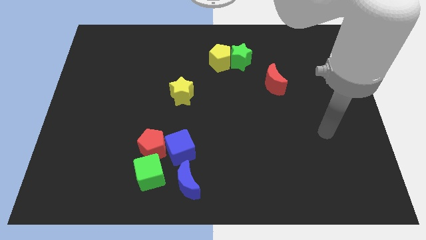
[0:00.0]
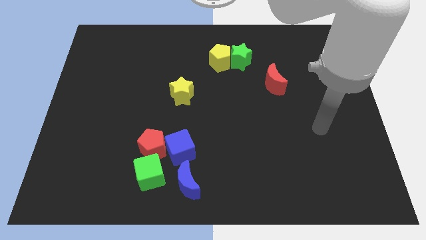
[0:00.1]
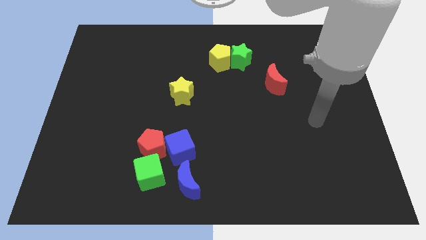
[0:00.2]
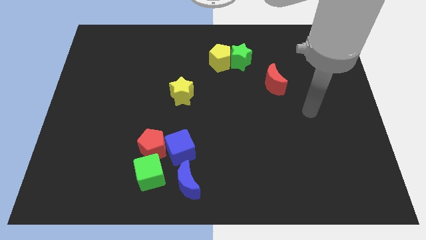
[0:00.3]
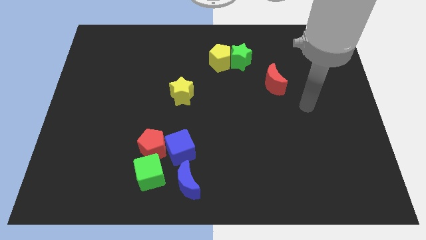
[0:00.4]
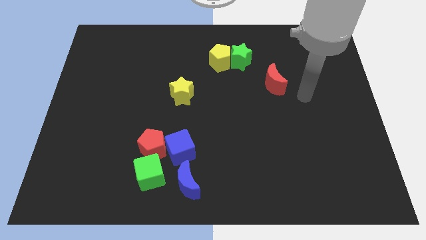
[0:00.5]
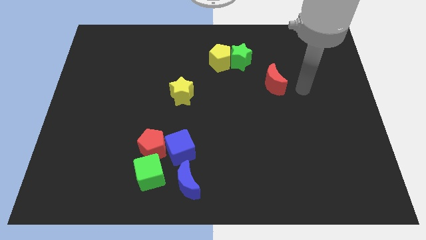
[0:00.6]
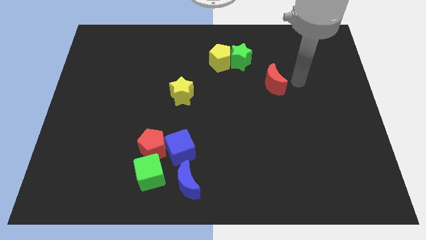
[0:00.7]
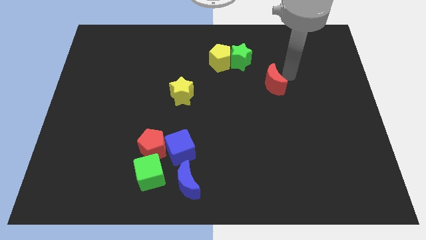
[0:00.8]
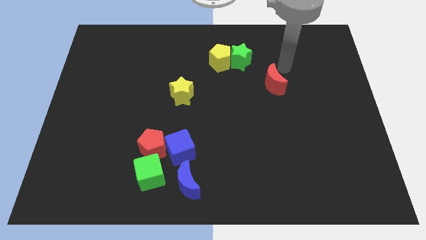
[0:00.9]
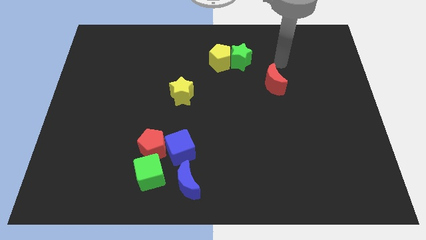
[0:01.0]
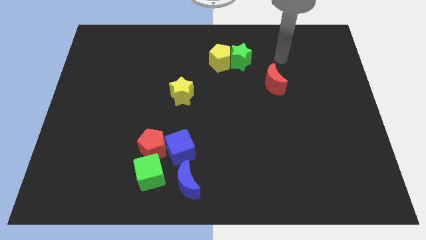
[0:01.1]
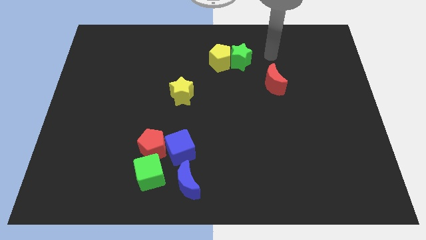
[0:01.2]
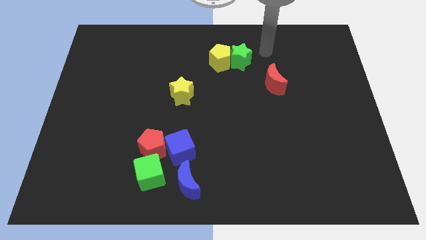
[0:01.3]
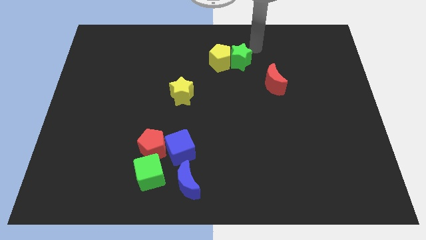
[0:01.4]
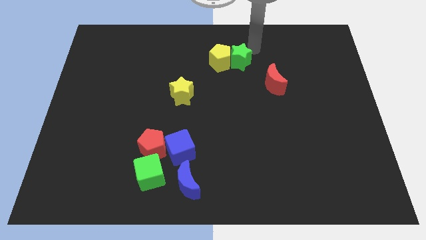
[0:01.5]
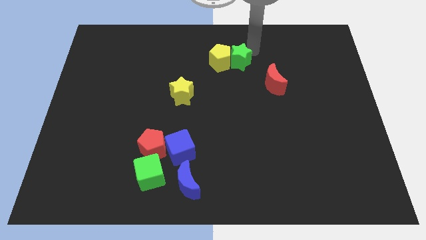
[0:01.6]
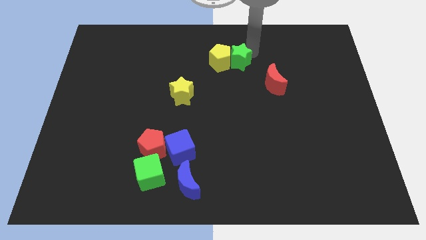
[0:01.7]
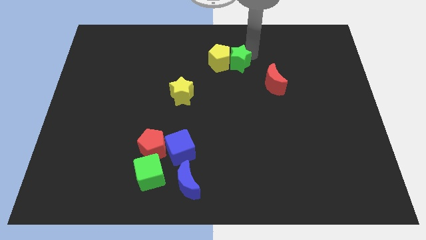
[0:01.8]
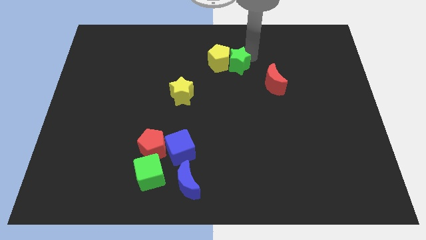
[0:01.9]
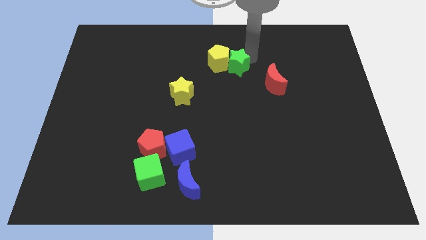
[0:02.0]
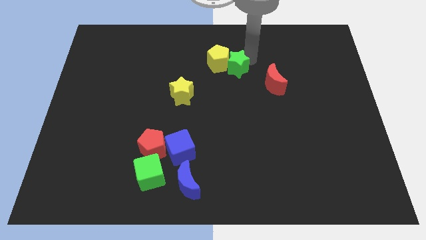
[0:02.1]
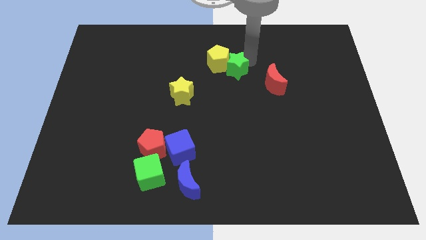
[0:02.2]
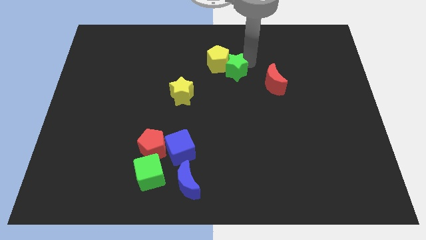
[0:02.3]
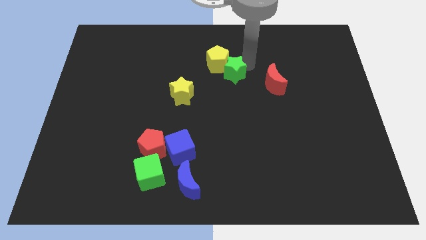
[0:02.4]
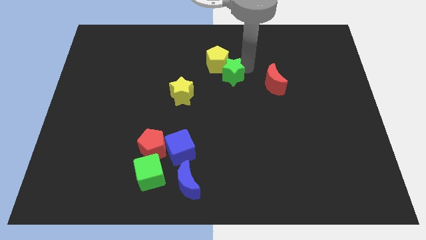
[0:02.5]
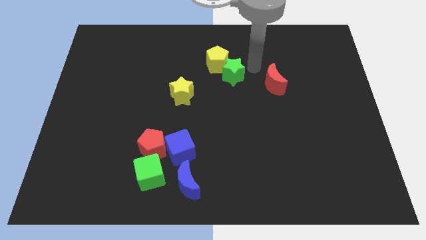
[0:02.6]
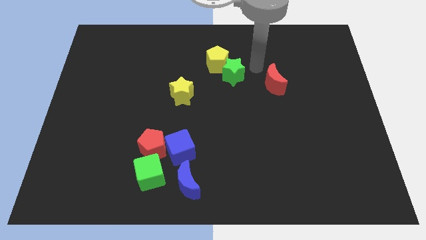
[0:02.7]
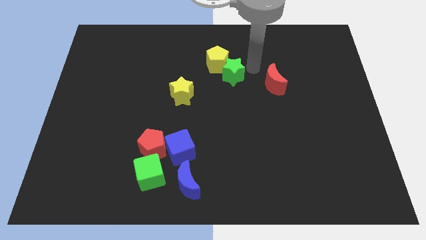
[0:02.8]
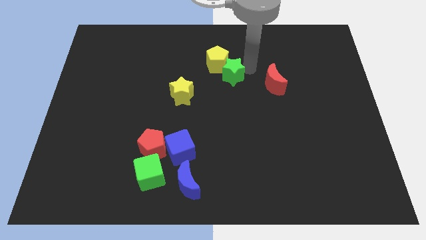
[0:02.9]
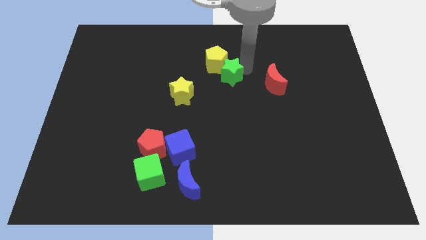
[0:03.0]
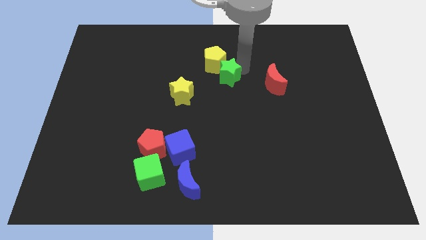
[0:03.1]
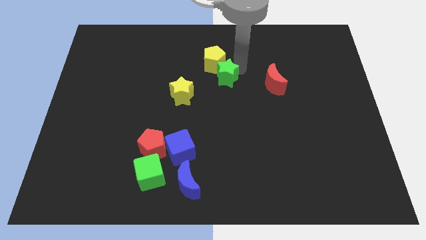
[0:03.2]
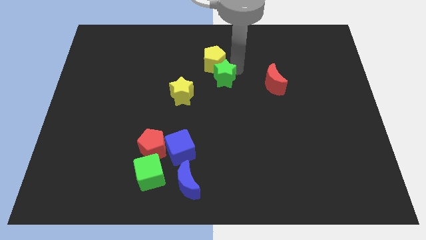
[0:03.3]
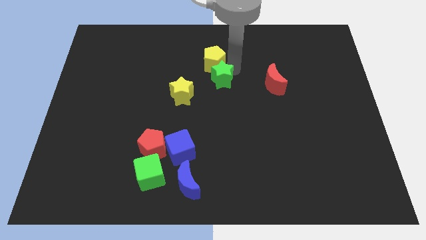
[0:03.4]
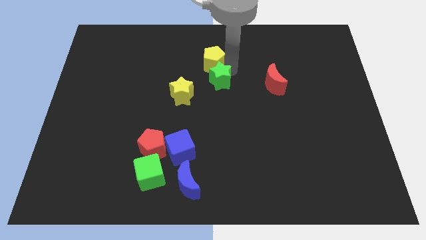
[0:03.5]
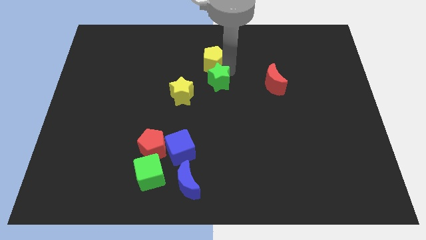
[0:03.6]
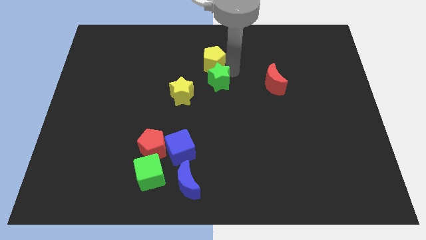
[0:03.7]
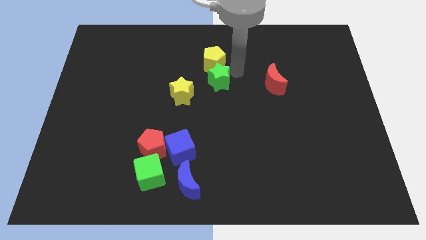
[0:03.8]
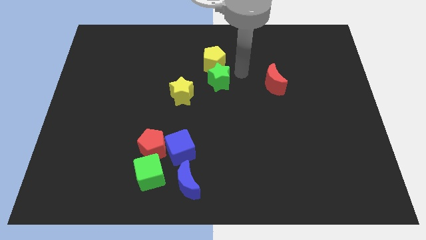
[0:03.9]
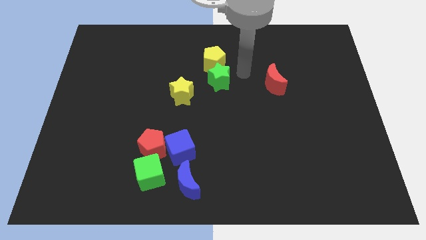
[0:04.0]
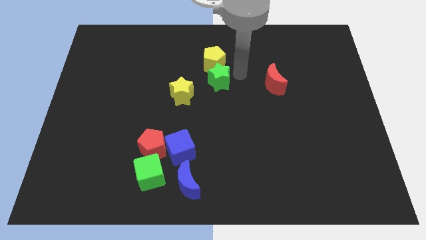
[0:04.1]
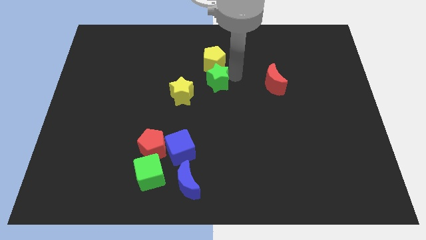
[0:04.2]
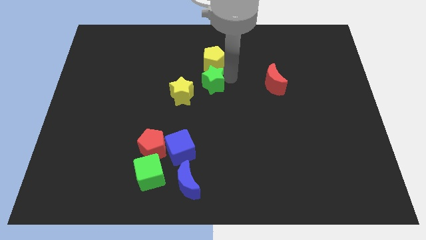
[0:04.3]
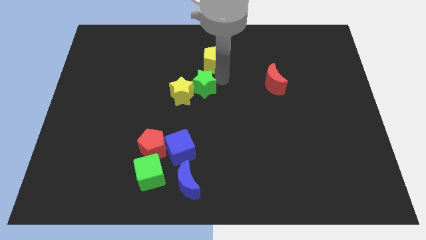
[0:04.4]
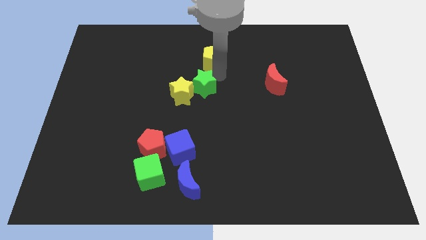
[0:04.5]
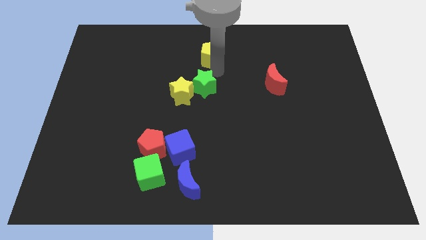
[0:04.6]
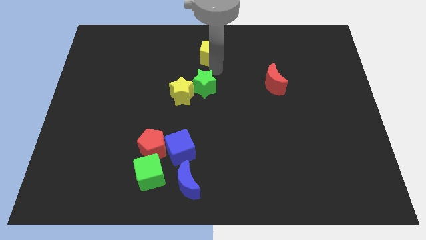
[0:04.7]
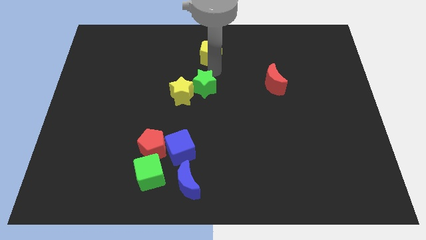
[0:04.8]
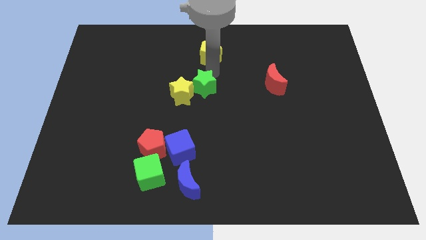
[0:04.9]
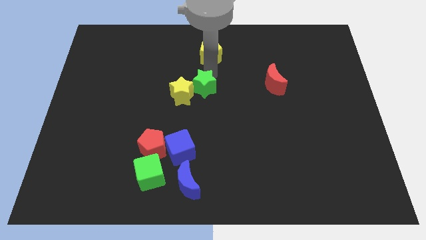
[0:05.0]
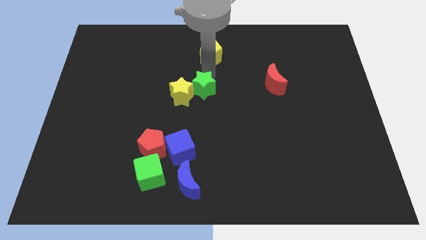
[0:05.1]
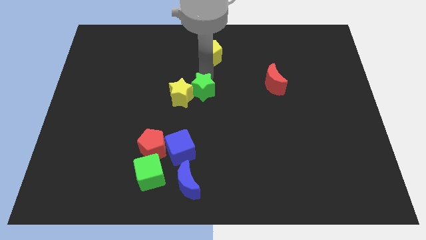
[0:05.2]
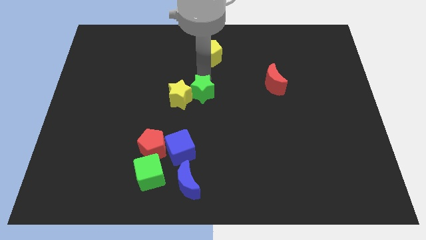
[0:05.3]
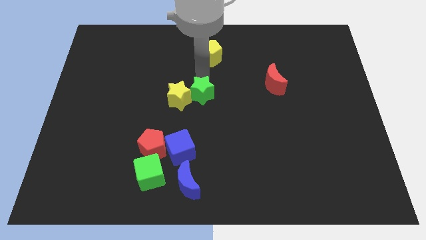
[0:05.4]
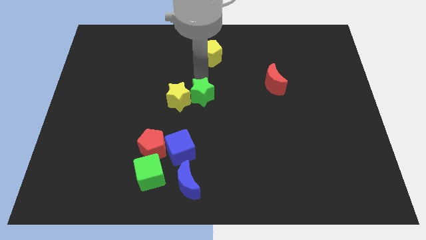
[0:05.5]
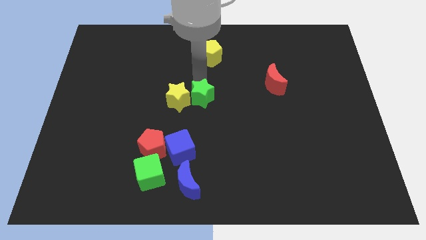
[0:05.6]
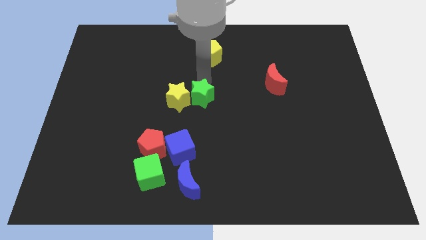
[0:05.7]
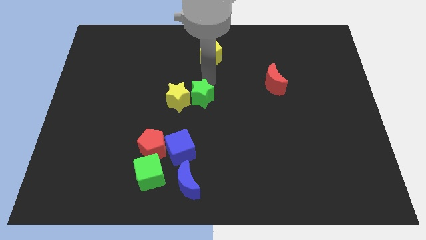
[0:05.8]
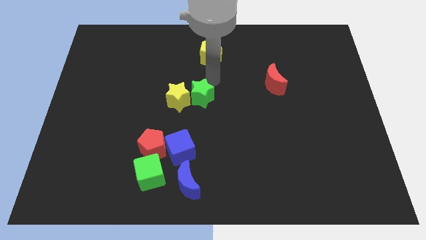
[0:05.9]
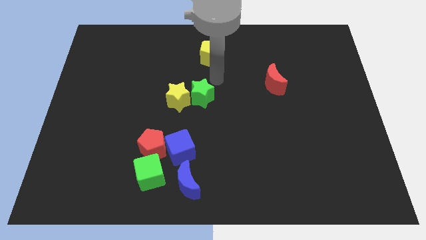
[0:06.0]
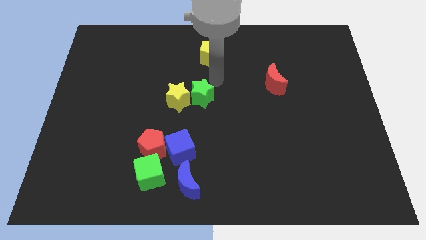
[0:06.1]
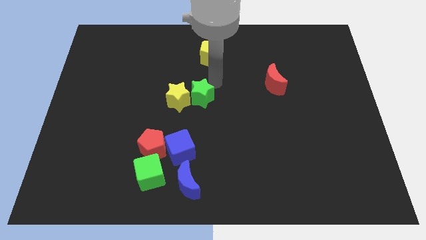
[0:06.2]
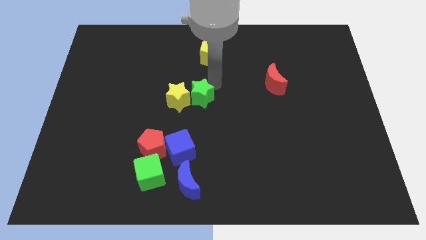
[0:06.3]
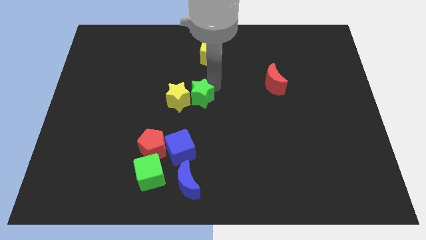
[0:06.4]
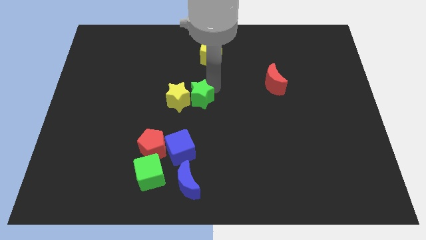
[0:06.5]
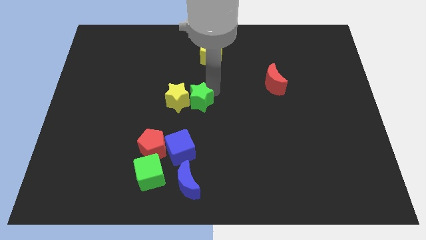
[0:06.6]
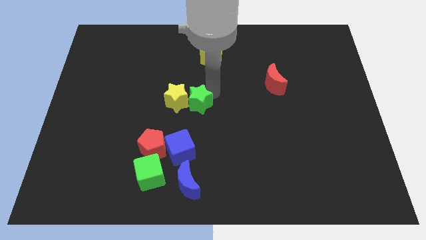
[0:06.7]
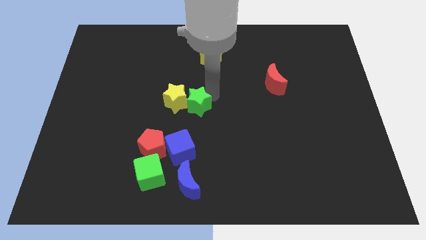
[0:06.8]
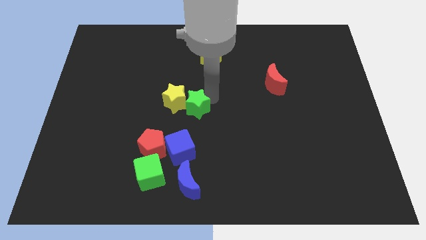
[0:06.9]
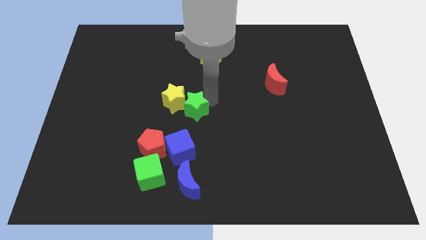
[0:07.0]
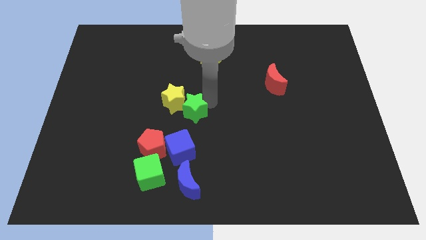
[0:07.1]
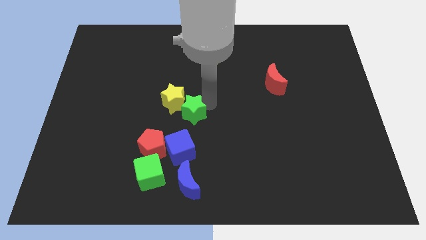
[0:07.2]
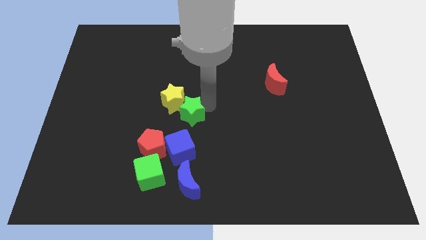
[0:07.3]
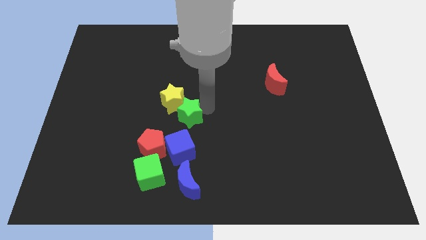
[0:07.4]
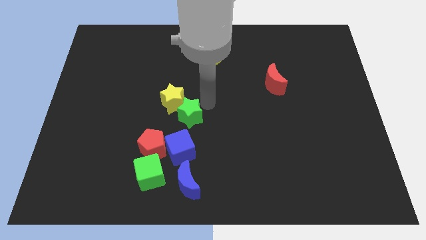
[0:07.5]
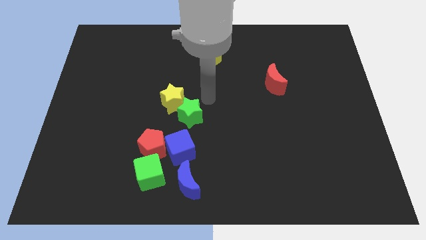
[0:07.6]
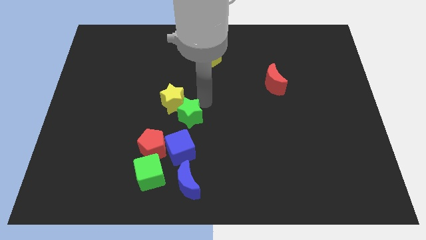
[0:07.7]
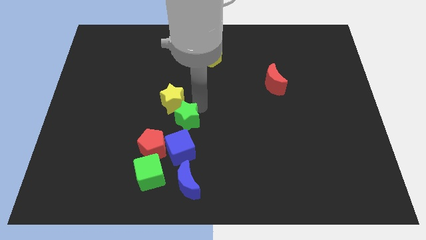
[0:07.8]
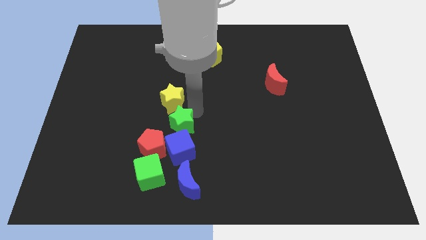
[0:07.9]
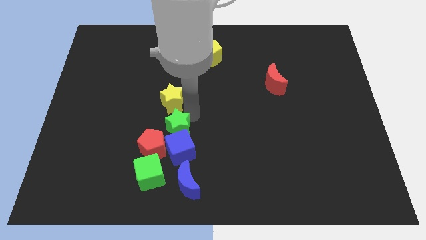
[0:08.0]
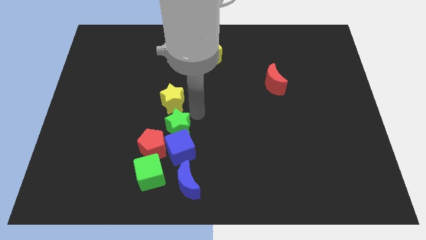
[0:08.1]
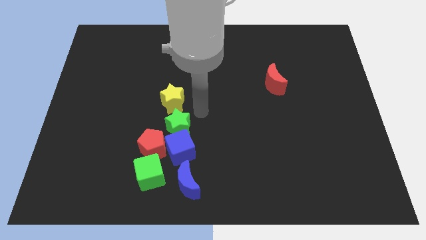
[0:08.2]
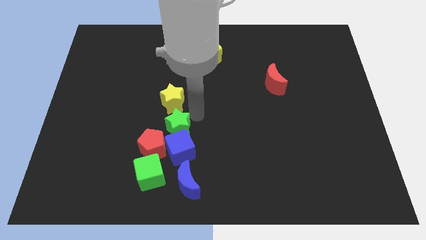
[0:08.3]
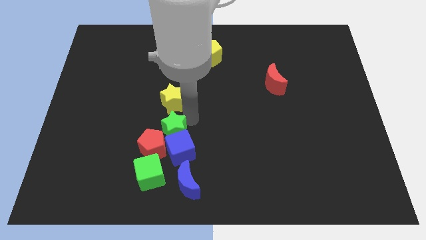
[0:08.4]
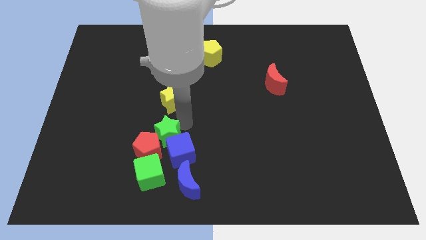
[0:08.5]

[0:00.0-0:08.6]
move the green star to the red pentagon
